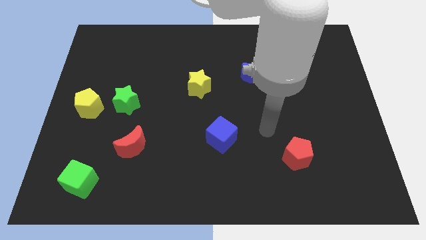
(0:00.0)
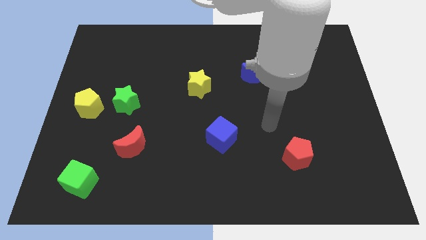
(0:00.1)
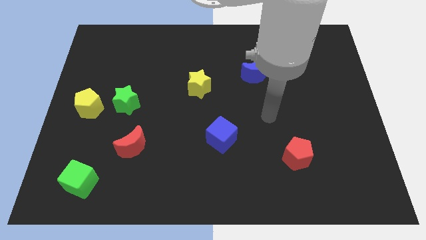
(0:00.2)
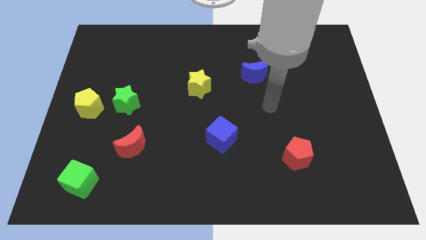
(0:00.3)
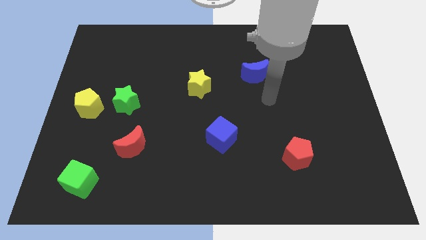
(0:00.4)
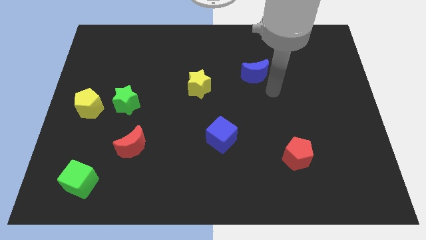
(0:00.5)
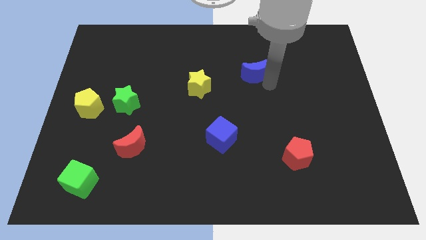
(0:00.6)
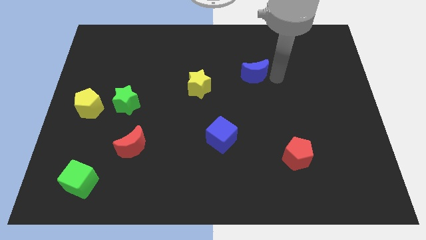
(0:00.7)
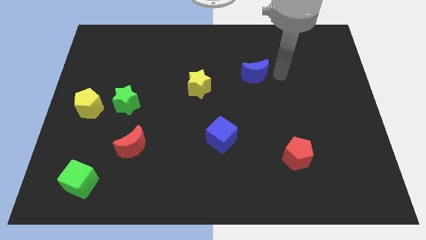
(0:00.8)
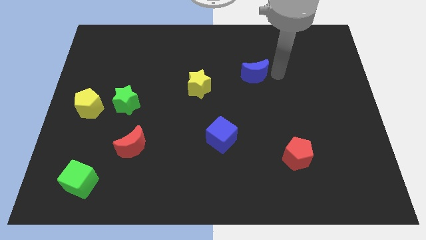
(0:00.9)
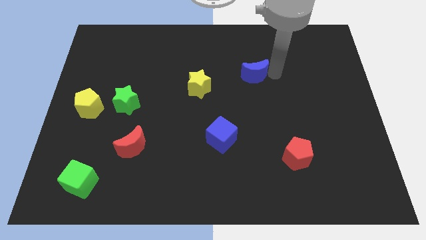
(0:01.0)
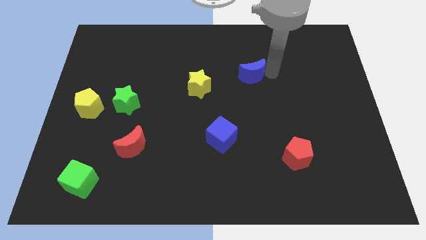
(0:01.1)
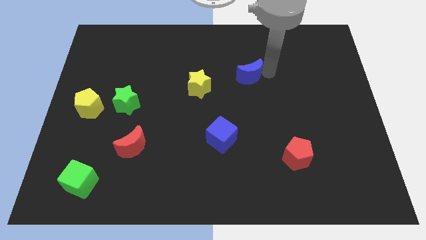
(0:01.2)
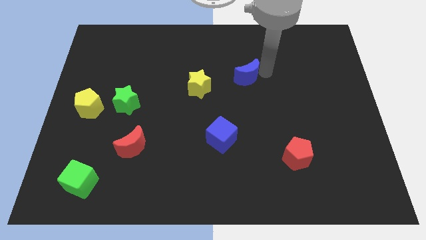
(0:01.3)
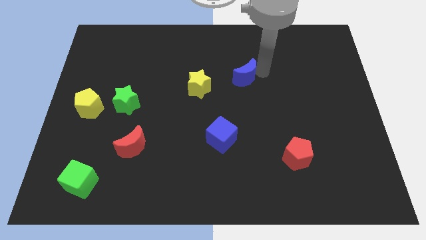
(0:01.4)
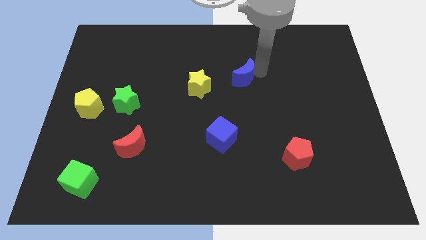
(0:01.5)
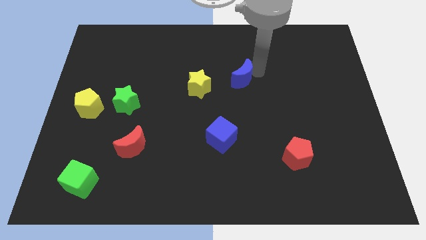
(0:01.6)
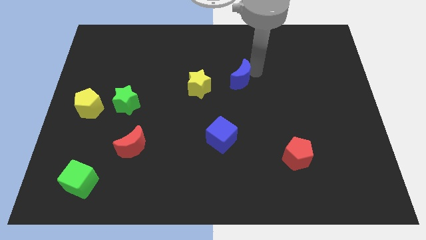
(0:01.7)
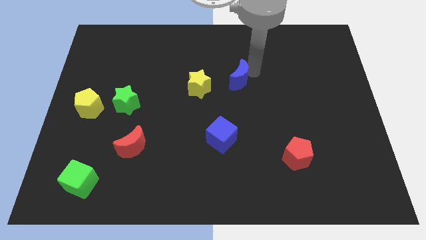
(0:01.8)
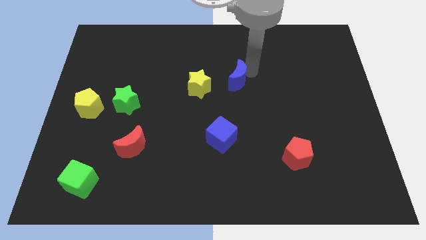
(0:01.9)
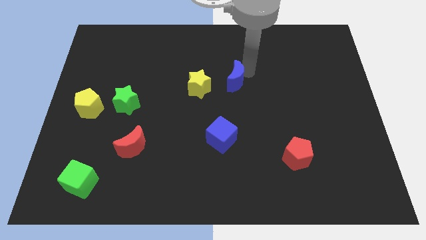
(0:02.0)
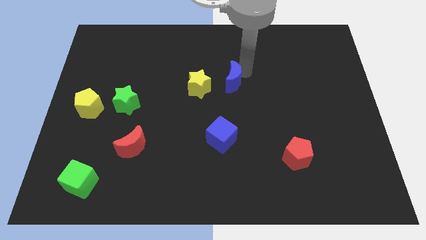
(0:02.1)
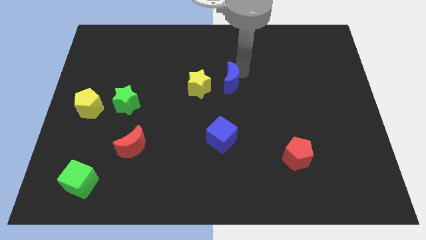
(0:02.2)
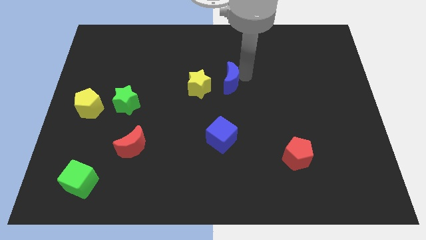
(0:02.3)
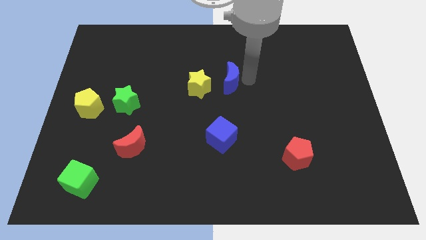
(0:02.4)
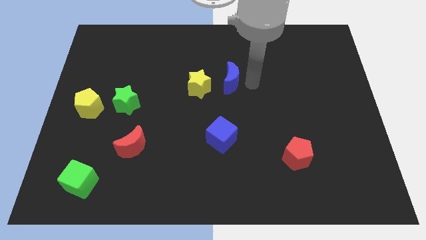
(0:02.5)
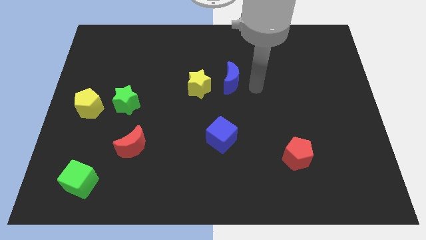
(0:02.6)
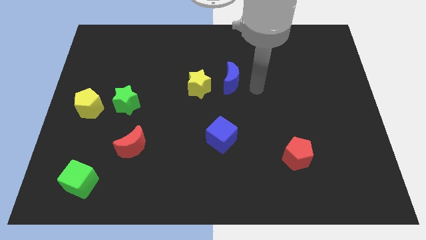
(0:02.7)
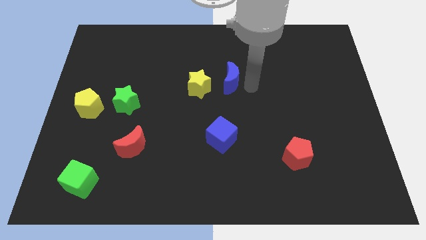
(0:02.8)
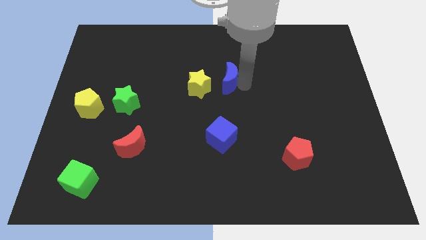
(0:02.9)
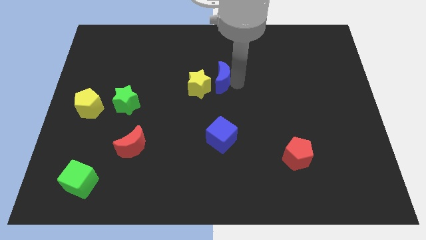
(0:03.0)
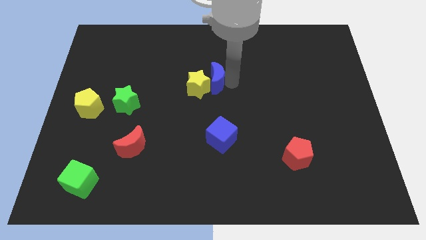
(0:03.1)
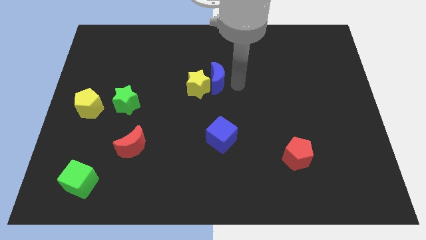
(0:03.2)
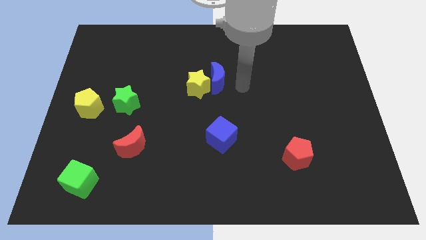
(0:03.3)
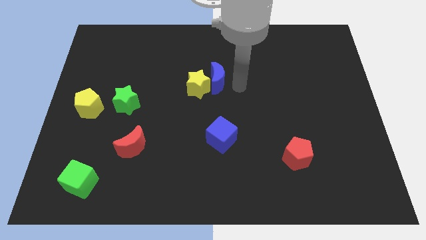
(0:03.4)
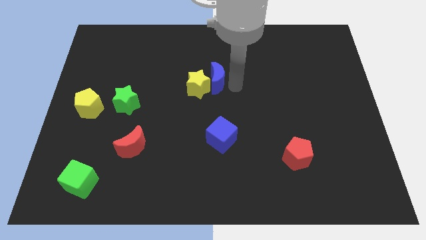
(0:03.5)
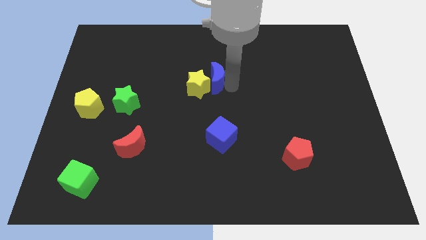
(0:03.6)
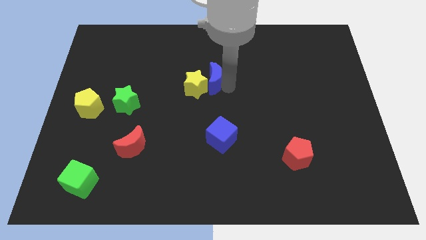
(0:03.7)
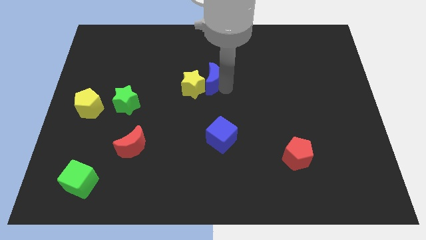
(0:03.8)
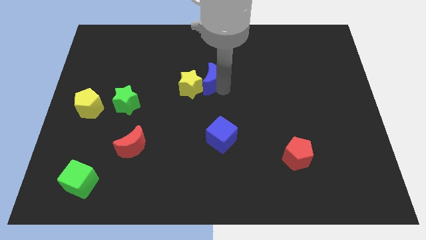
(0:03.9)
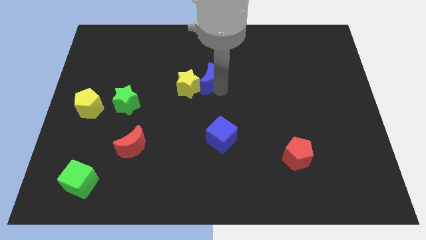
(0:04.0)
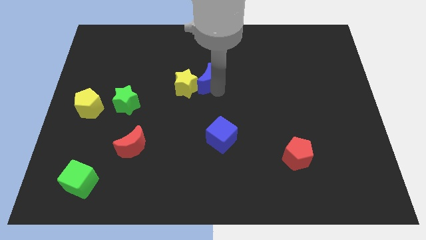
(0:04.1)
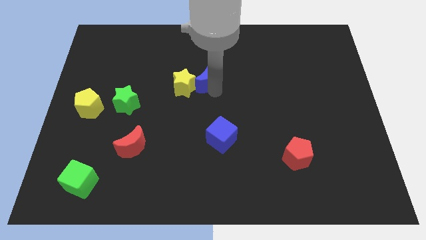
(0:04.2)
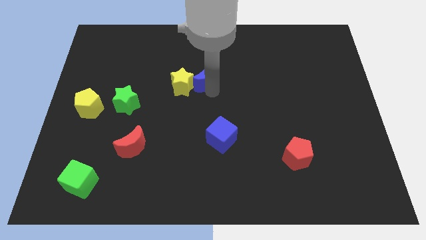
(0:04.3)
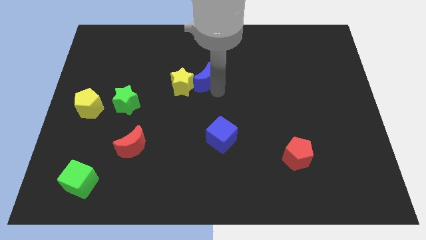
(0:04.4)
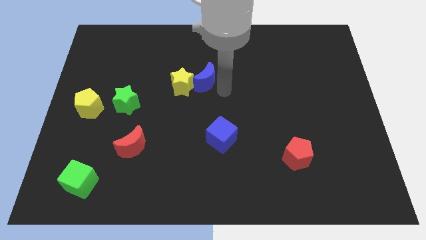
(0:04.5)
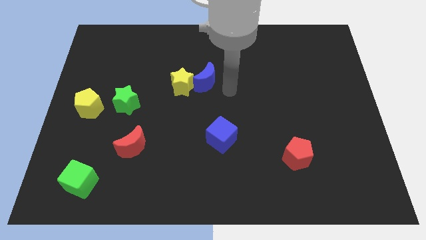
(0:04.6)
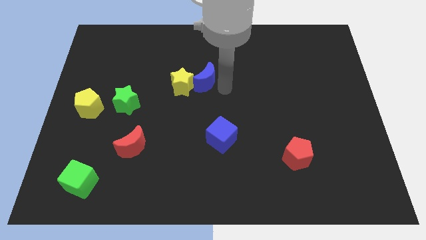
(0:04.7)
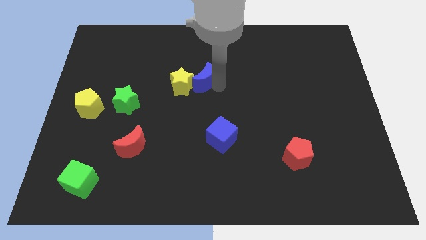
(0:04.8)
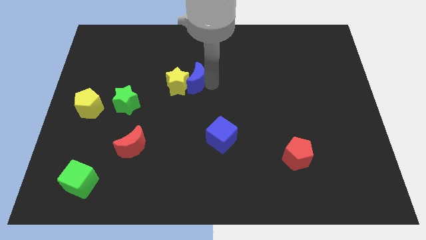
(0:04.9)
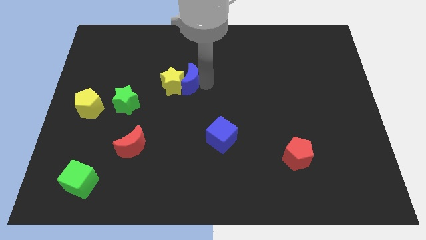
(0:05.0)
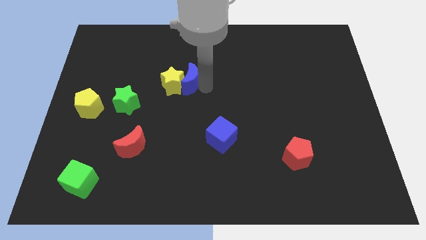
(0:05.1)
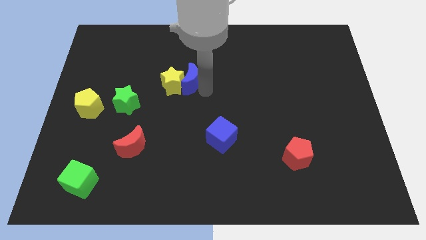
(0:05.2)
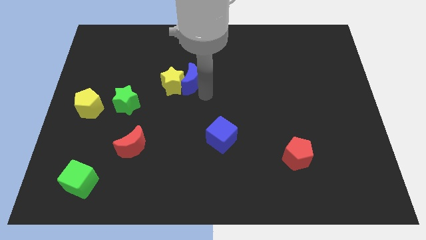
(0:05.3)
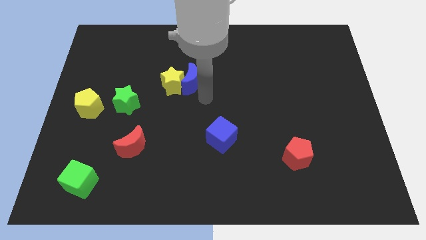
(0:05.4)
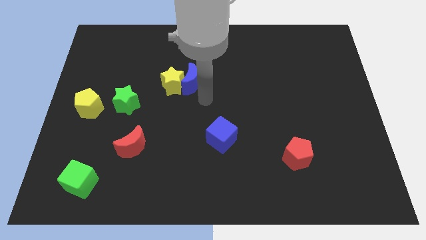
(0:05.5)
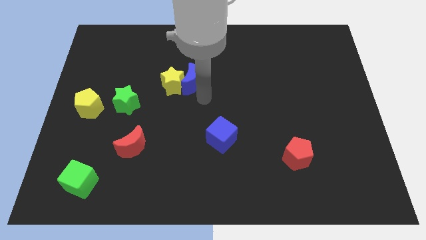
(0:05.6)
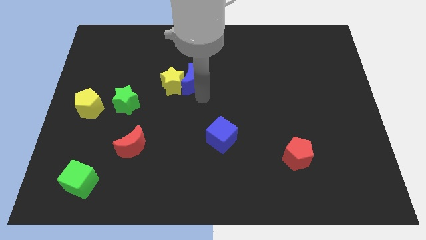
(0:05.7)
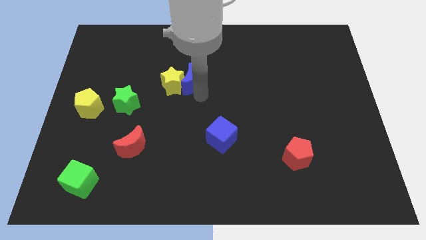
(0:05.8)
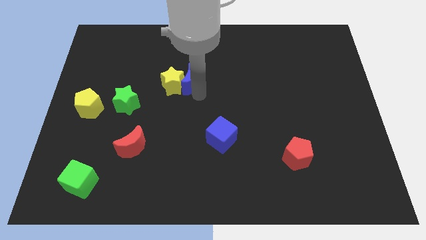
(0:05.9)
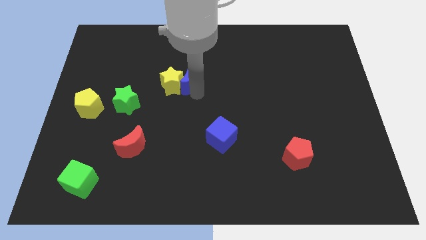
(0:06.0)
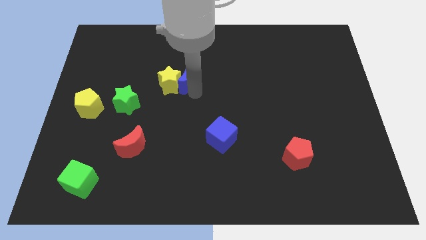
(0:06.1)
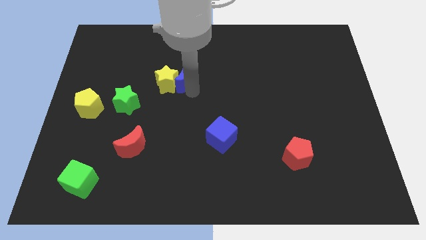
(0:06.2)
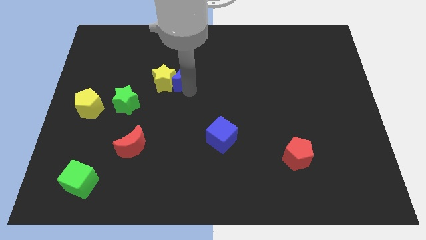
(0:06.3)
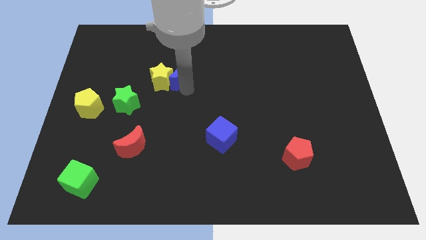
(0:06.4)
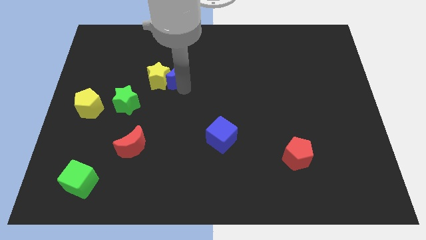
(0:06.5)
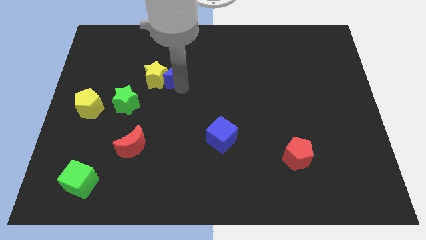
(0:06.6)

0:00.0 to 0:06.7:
push the blue moon left

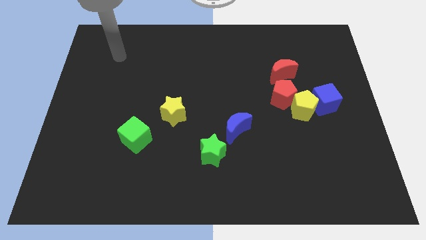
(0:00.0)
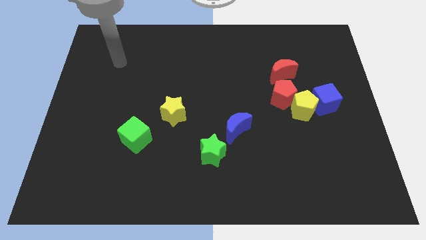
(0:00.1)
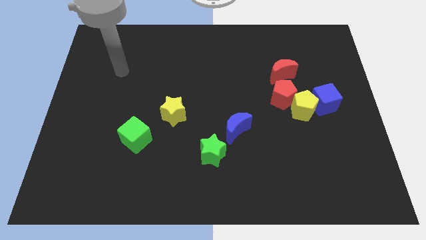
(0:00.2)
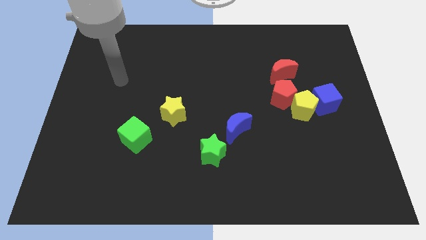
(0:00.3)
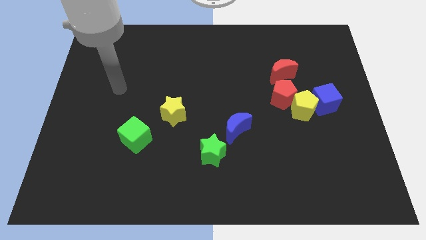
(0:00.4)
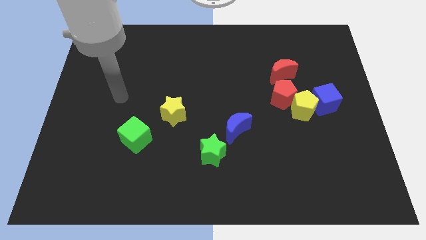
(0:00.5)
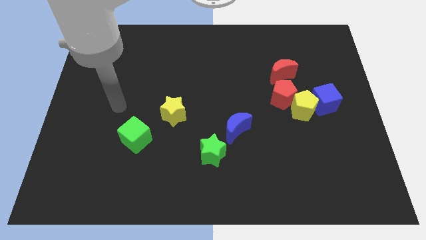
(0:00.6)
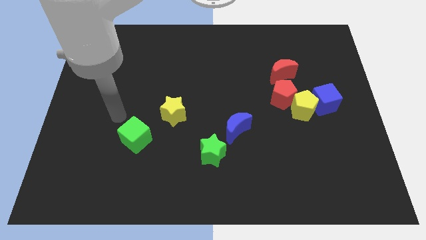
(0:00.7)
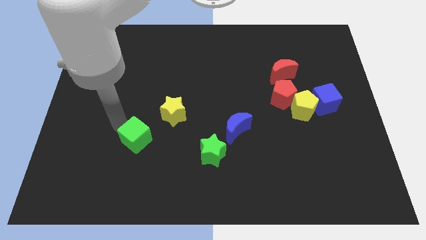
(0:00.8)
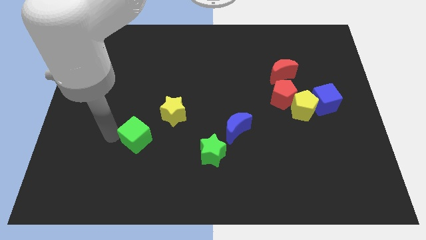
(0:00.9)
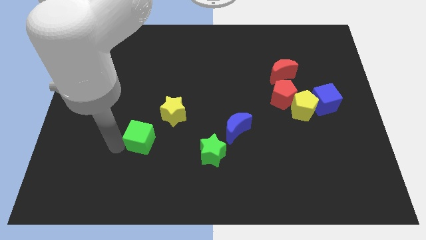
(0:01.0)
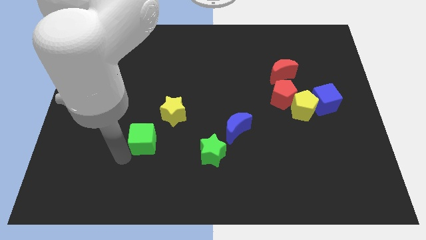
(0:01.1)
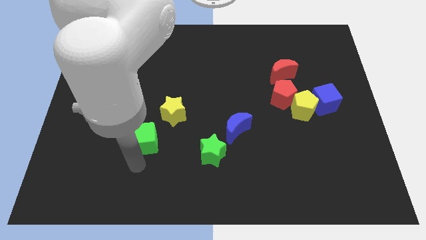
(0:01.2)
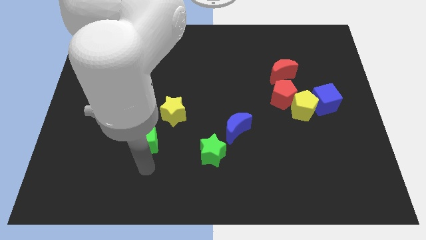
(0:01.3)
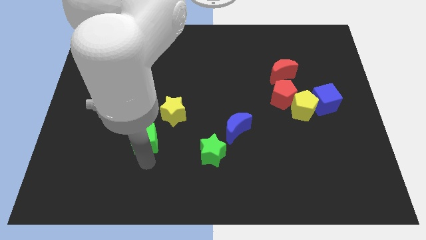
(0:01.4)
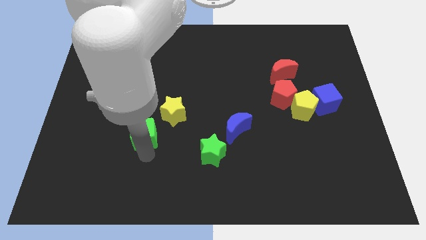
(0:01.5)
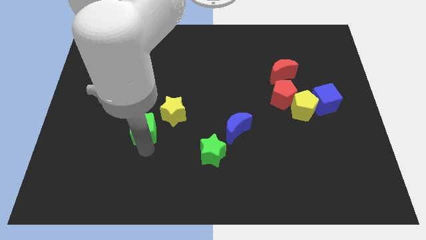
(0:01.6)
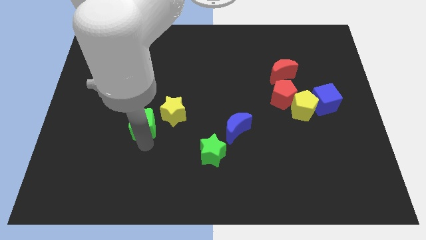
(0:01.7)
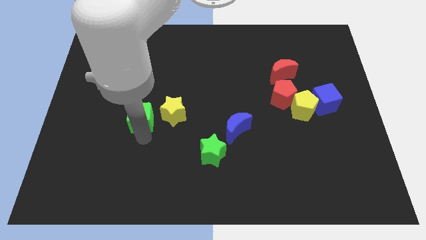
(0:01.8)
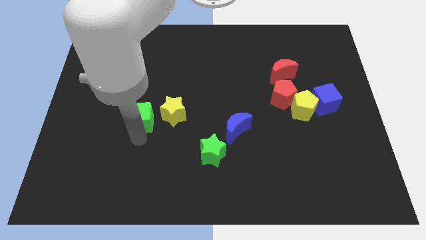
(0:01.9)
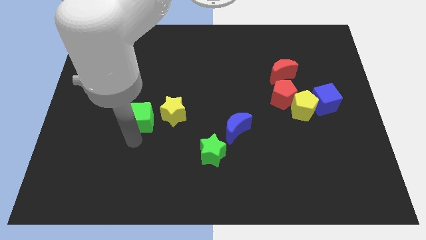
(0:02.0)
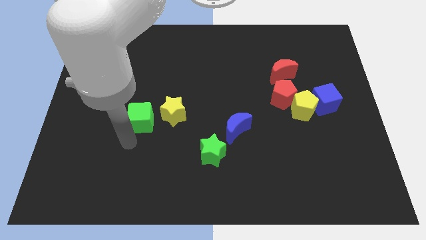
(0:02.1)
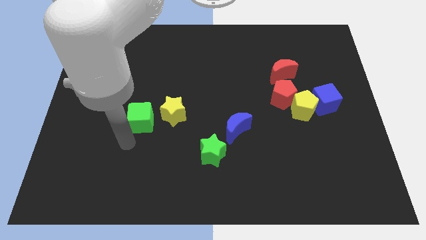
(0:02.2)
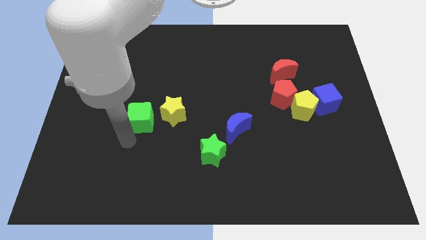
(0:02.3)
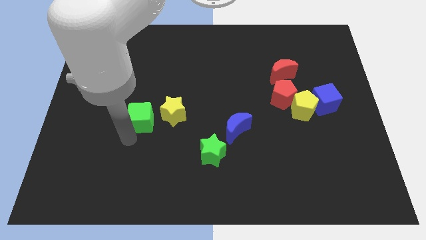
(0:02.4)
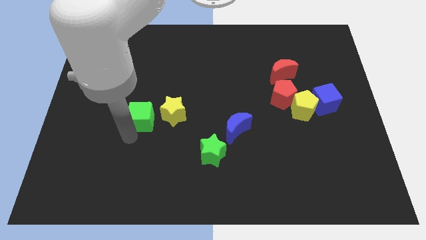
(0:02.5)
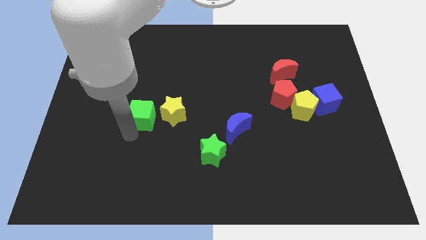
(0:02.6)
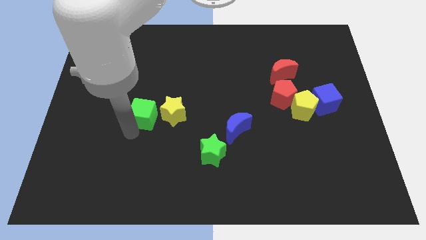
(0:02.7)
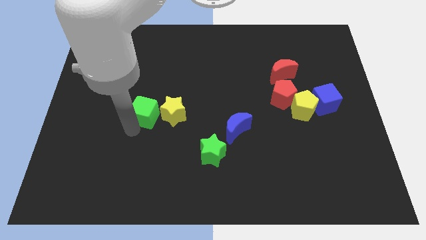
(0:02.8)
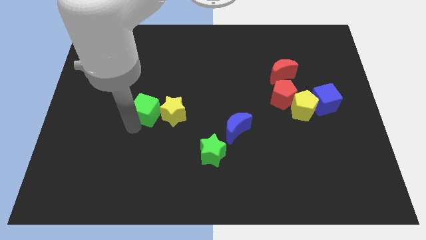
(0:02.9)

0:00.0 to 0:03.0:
move the green cube up a little bit
